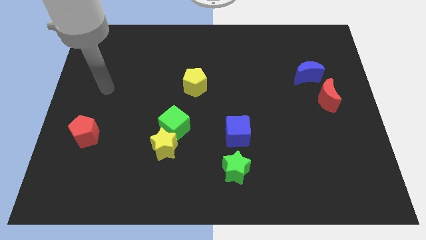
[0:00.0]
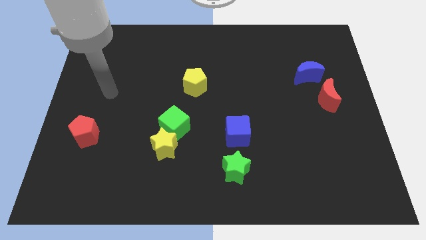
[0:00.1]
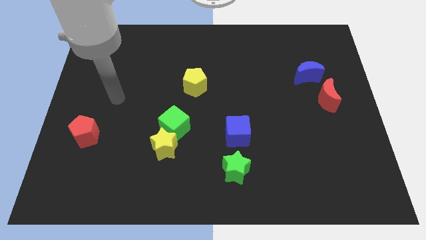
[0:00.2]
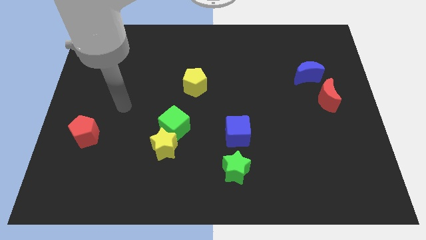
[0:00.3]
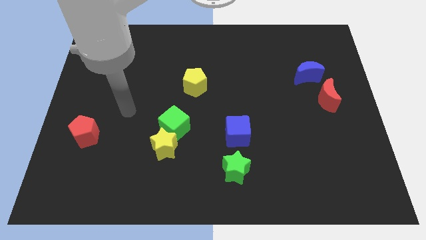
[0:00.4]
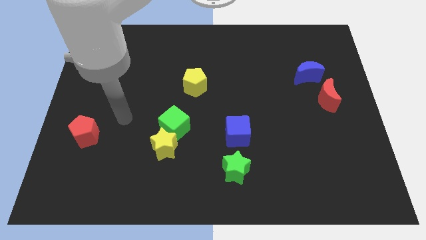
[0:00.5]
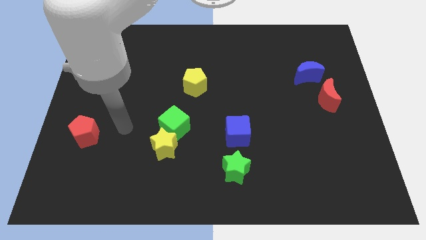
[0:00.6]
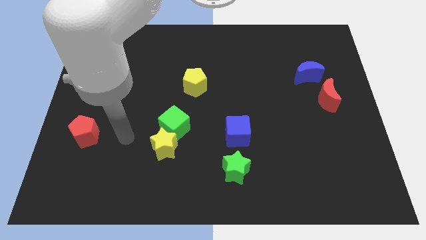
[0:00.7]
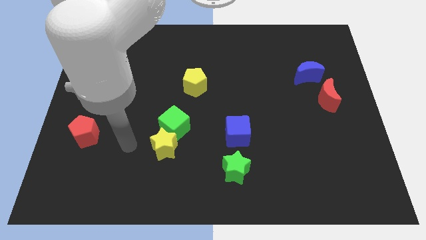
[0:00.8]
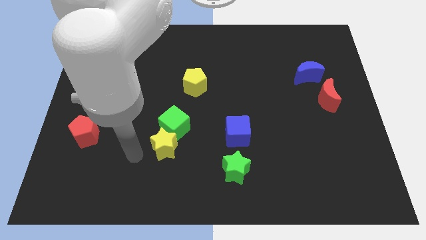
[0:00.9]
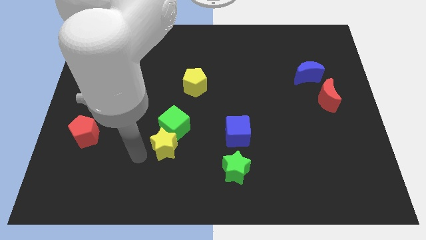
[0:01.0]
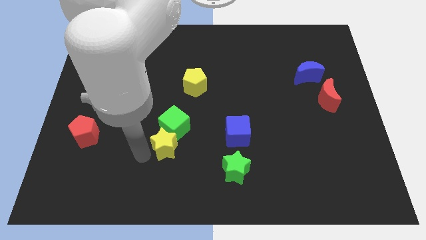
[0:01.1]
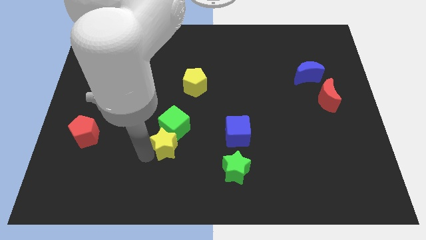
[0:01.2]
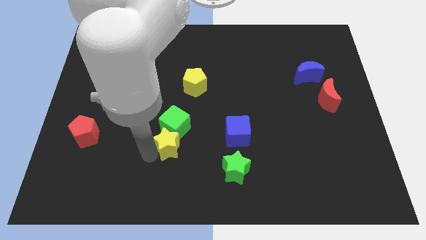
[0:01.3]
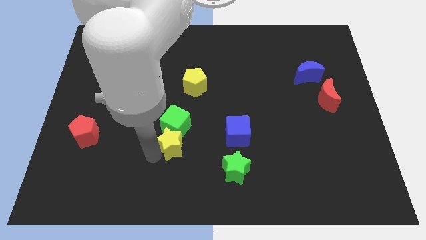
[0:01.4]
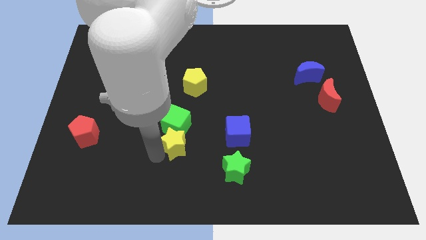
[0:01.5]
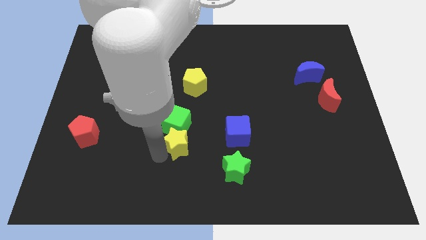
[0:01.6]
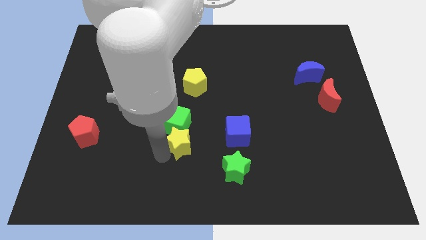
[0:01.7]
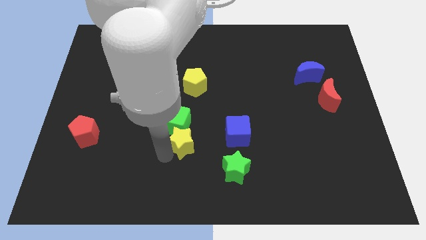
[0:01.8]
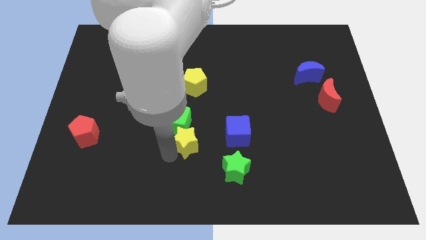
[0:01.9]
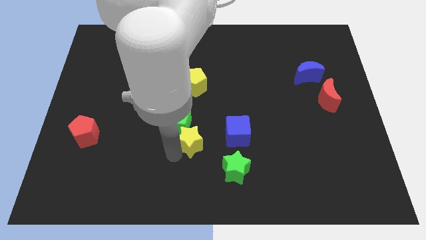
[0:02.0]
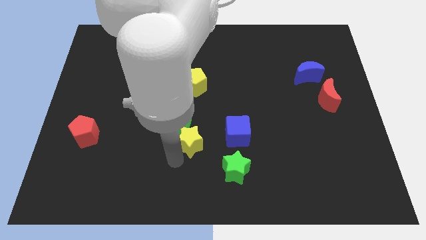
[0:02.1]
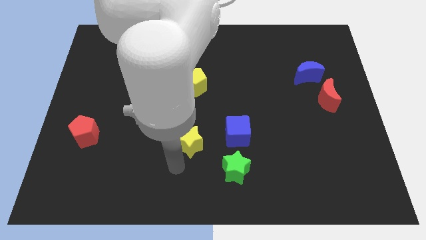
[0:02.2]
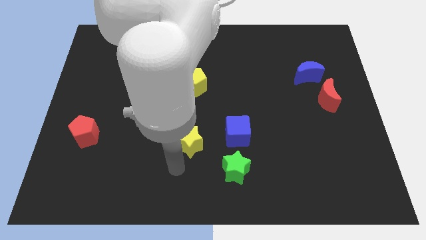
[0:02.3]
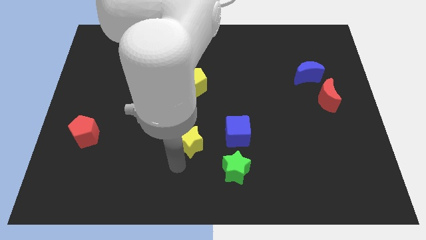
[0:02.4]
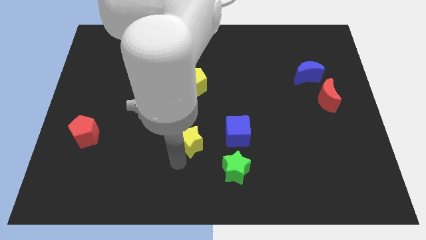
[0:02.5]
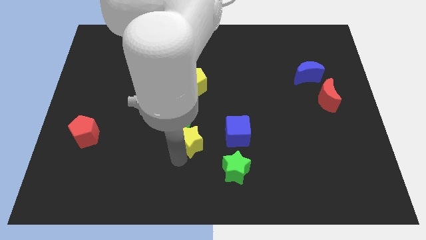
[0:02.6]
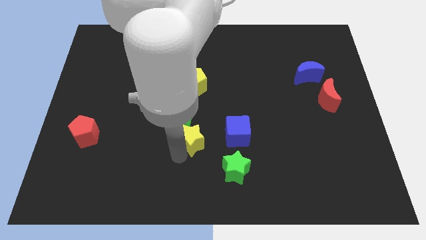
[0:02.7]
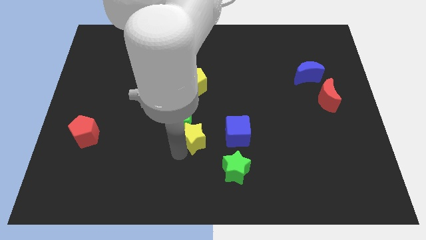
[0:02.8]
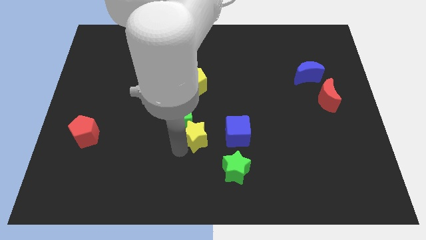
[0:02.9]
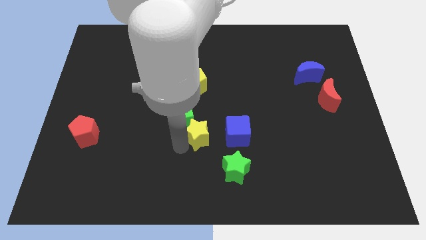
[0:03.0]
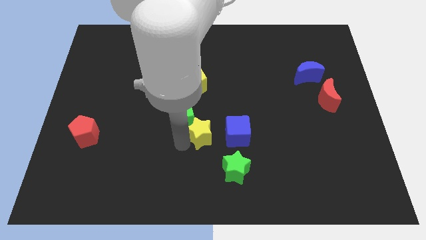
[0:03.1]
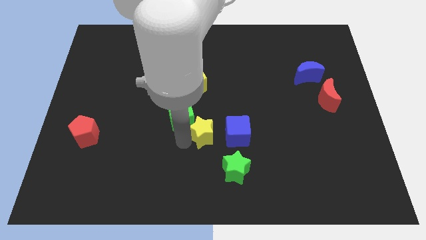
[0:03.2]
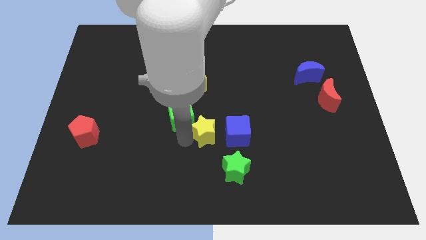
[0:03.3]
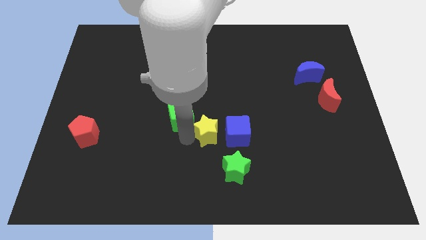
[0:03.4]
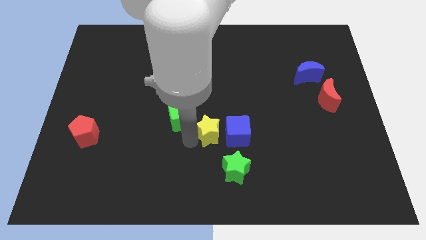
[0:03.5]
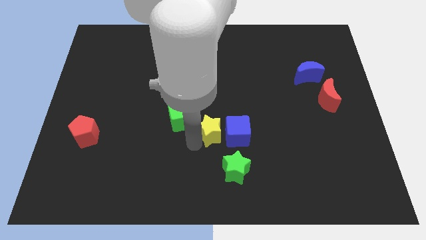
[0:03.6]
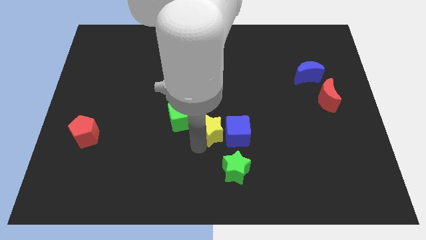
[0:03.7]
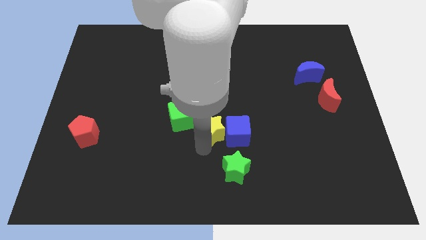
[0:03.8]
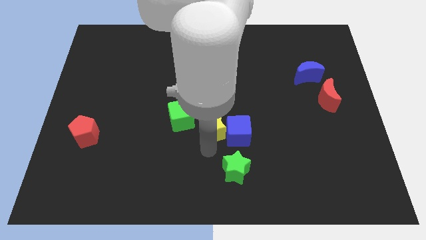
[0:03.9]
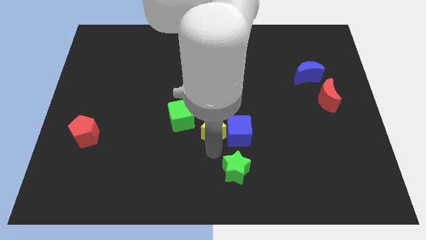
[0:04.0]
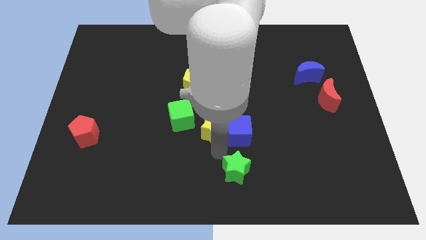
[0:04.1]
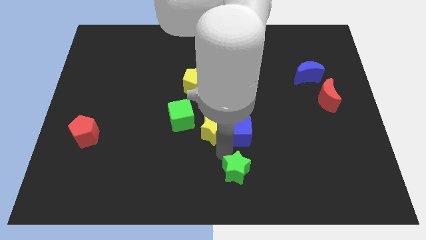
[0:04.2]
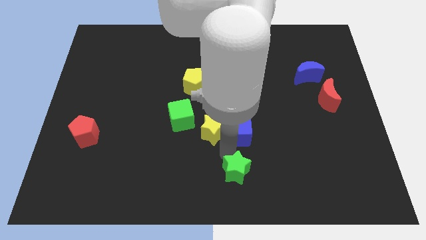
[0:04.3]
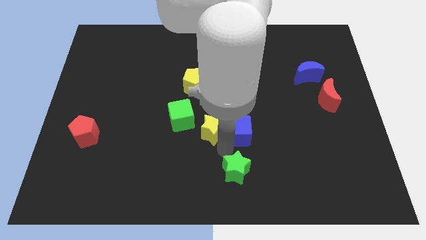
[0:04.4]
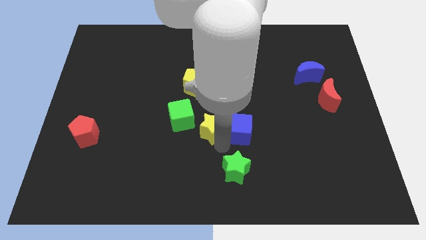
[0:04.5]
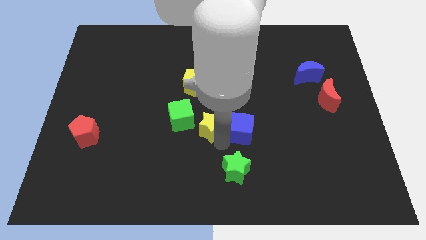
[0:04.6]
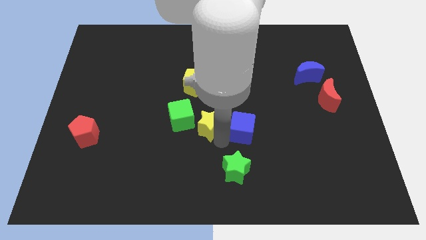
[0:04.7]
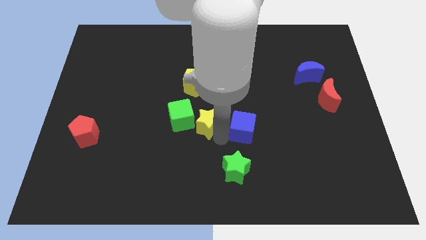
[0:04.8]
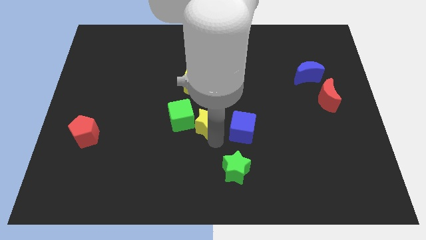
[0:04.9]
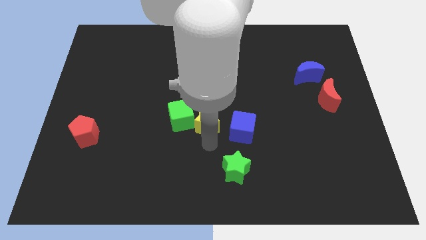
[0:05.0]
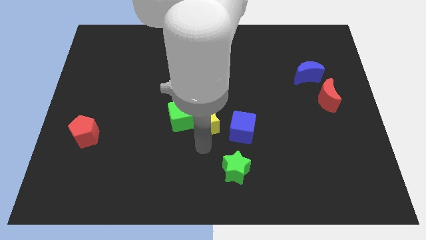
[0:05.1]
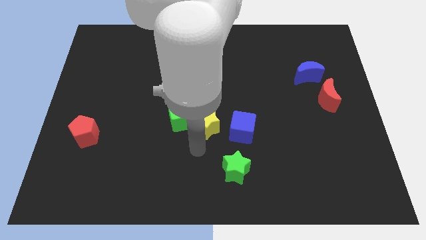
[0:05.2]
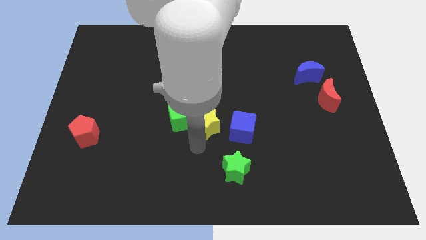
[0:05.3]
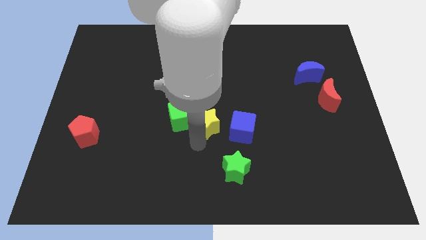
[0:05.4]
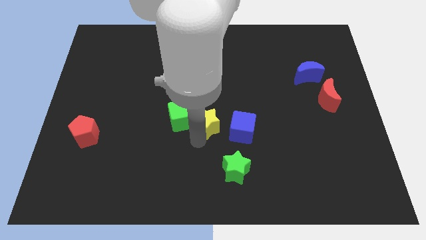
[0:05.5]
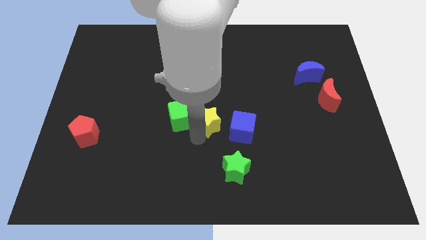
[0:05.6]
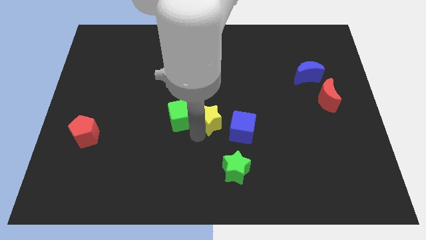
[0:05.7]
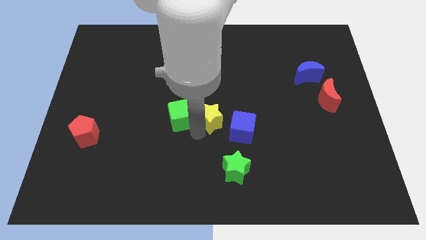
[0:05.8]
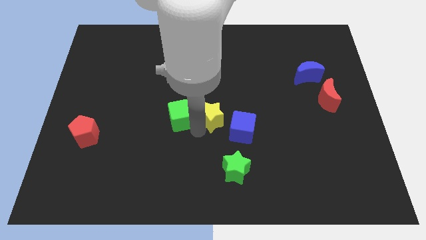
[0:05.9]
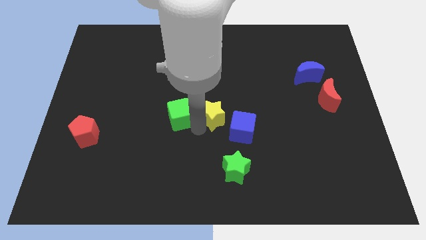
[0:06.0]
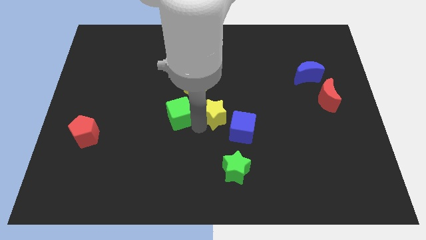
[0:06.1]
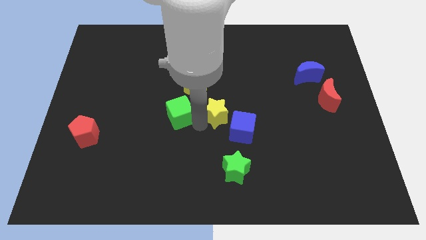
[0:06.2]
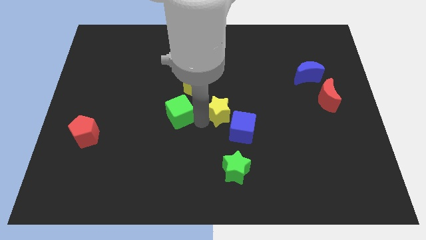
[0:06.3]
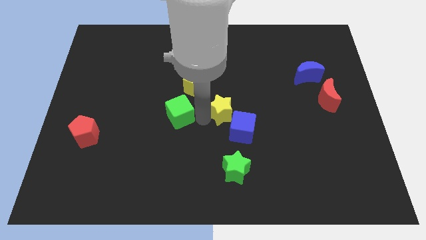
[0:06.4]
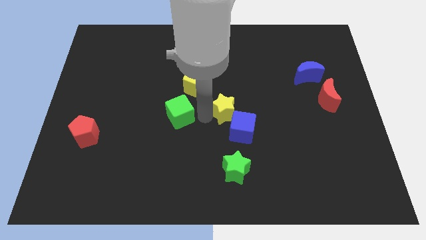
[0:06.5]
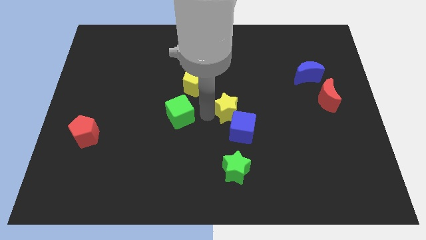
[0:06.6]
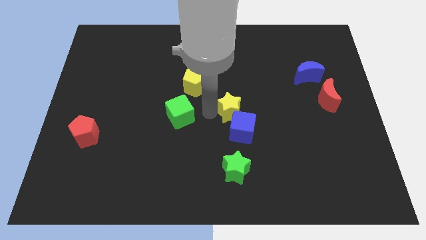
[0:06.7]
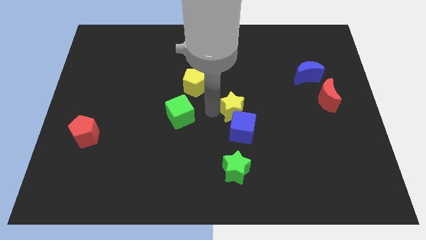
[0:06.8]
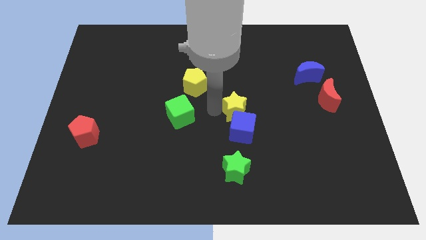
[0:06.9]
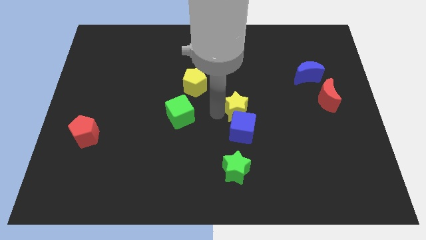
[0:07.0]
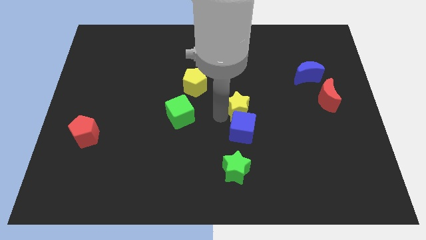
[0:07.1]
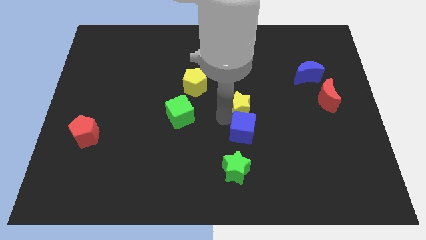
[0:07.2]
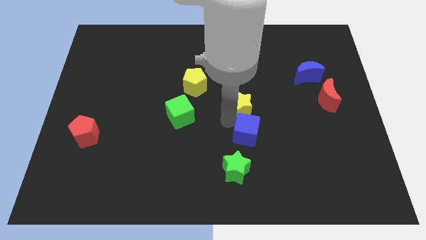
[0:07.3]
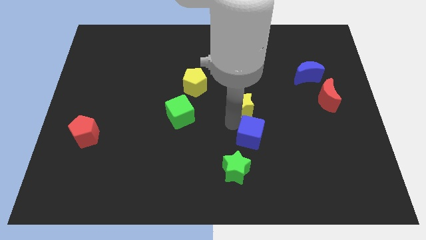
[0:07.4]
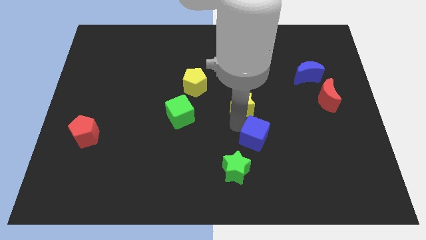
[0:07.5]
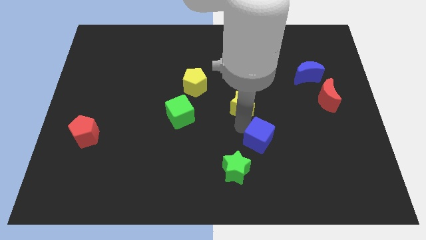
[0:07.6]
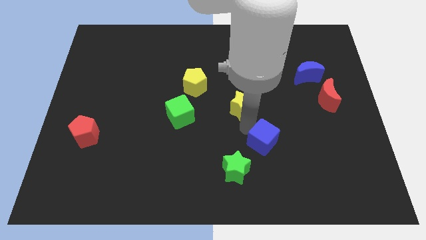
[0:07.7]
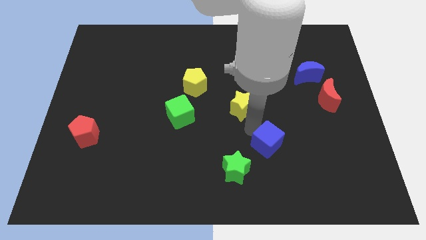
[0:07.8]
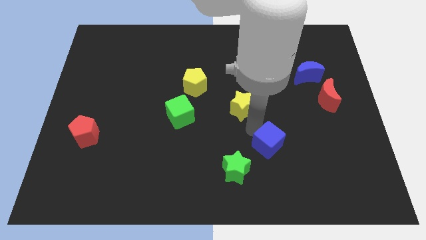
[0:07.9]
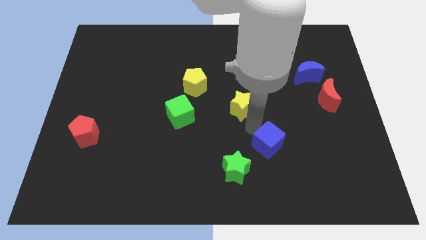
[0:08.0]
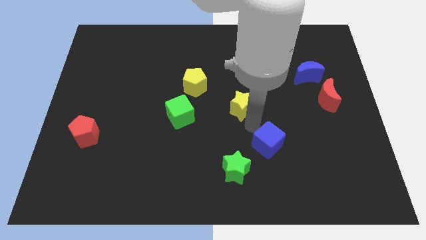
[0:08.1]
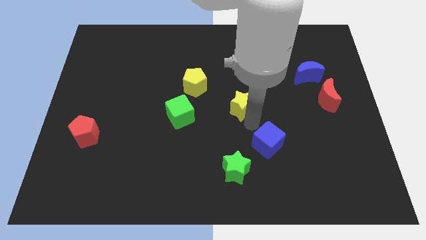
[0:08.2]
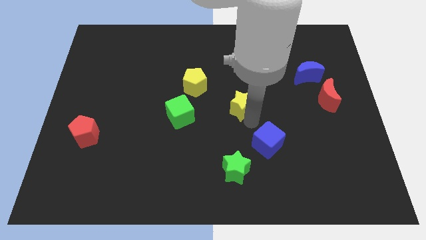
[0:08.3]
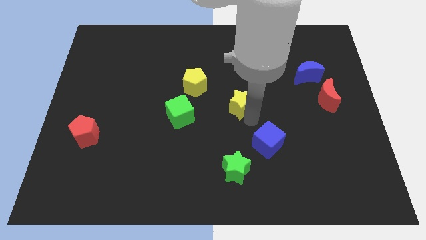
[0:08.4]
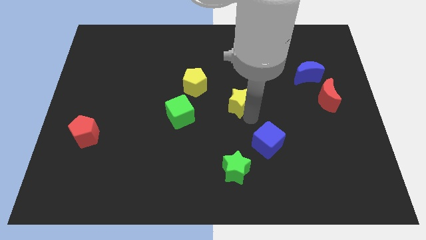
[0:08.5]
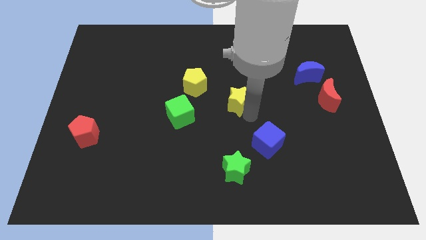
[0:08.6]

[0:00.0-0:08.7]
slide the yellow star diagonally up and right
